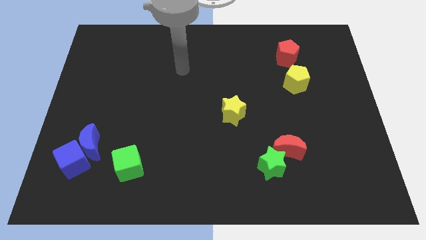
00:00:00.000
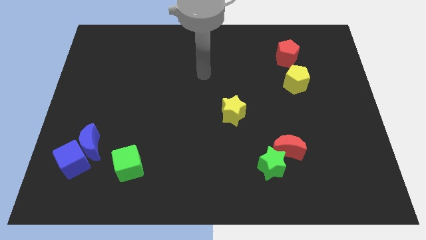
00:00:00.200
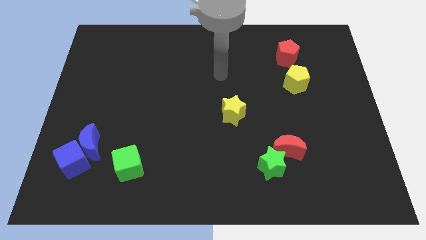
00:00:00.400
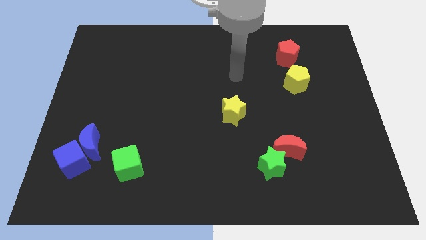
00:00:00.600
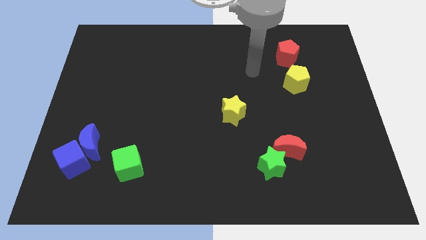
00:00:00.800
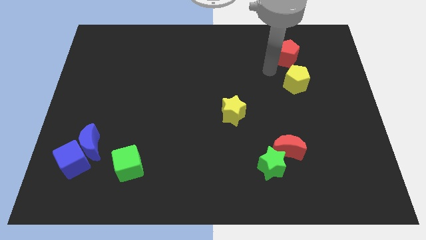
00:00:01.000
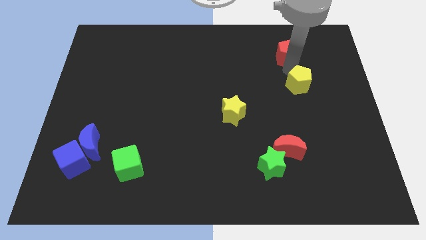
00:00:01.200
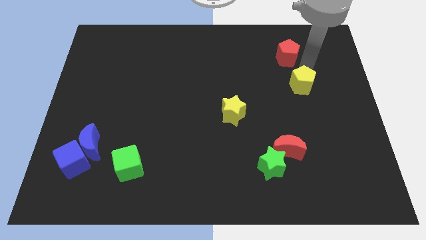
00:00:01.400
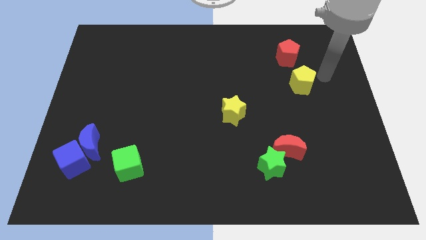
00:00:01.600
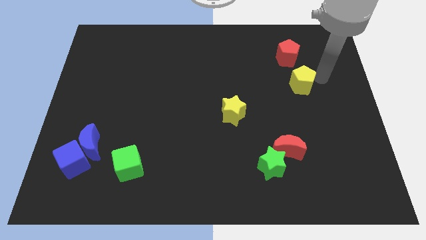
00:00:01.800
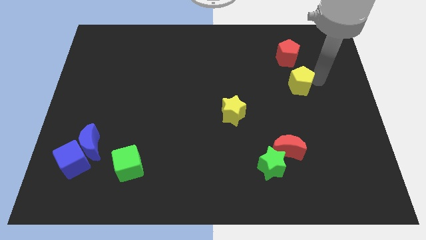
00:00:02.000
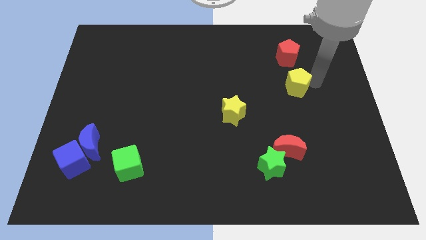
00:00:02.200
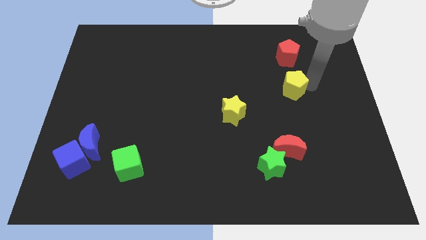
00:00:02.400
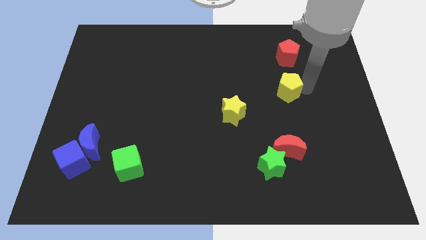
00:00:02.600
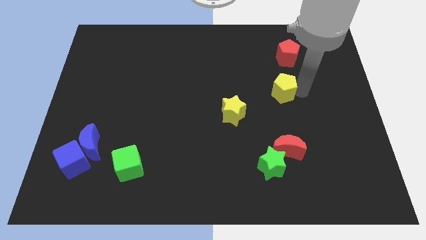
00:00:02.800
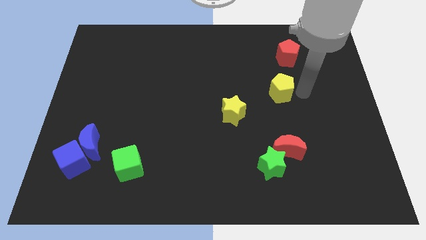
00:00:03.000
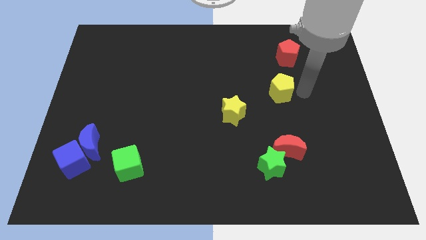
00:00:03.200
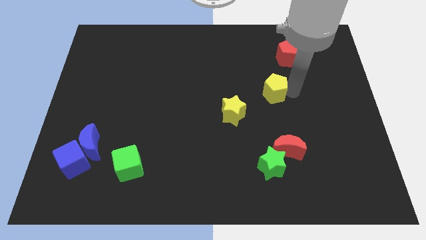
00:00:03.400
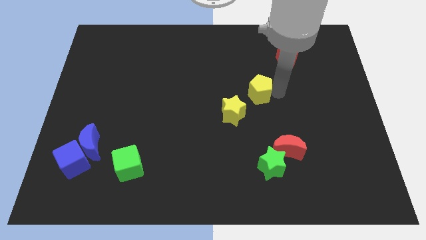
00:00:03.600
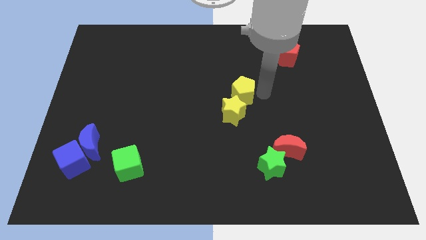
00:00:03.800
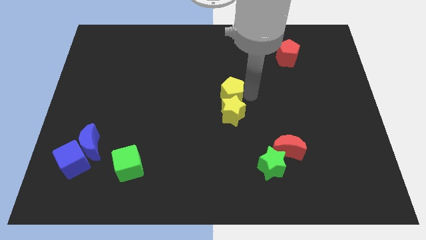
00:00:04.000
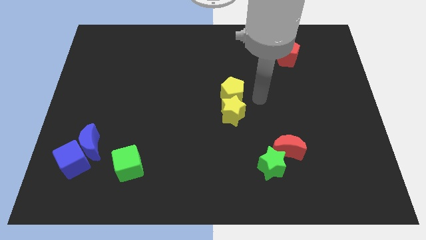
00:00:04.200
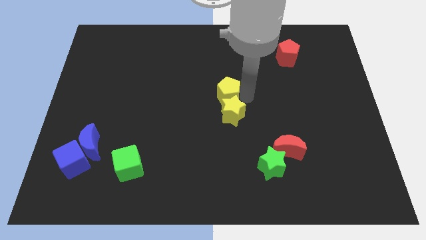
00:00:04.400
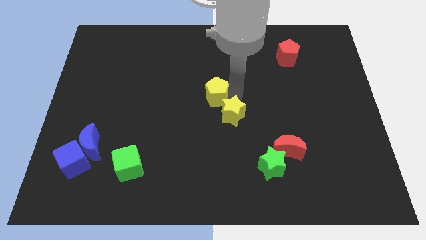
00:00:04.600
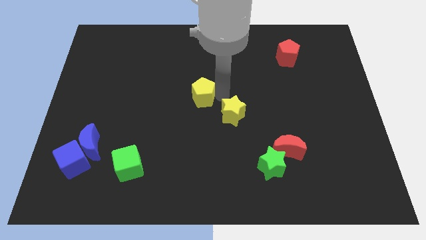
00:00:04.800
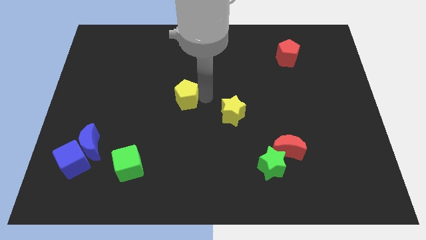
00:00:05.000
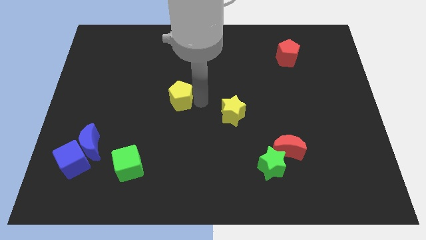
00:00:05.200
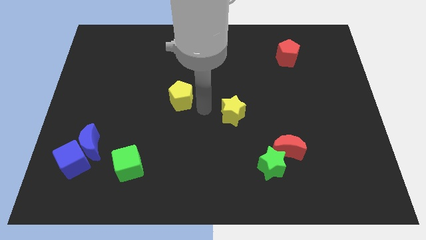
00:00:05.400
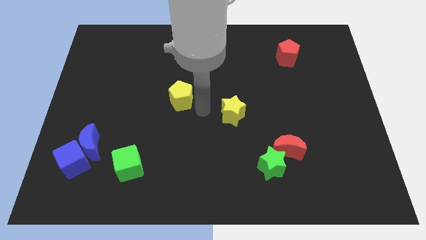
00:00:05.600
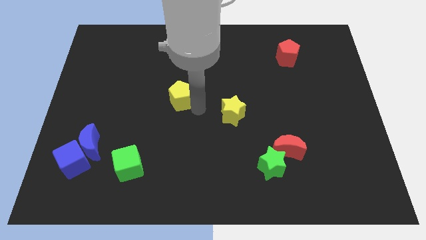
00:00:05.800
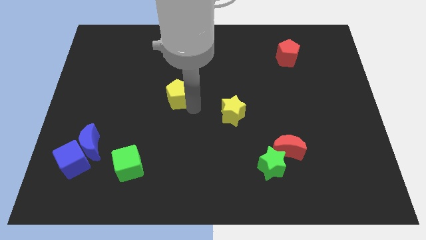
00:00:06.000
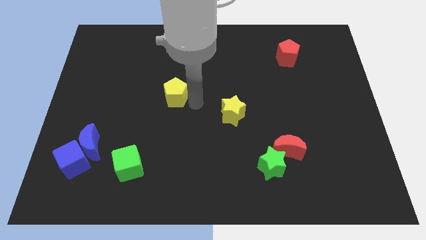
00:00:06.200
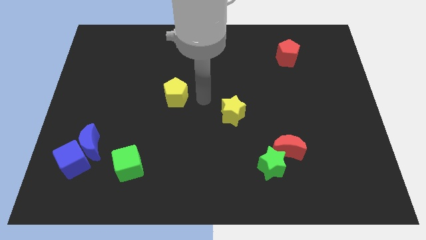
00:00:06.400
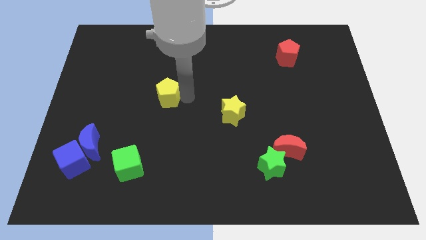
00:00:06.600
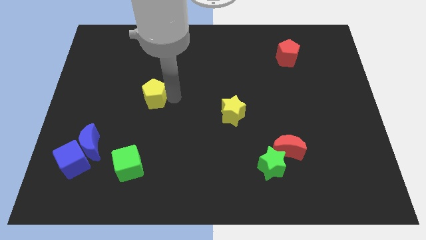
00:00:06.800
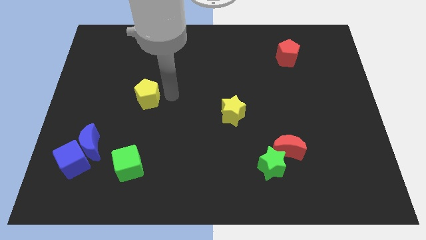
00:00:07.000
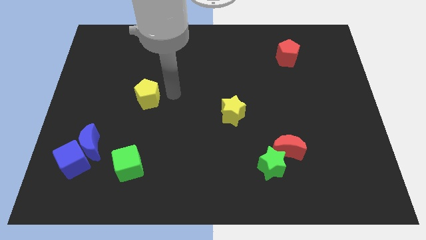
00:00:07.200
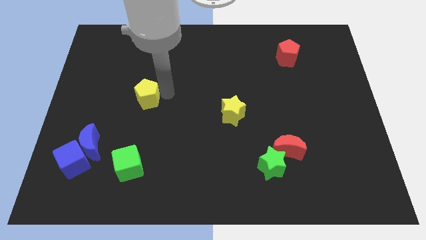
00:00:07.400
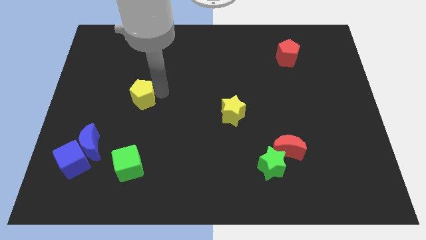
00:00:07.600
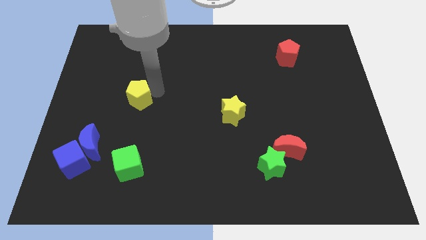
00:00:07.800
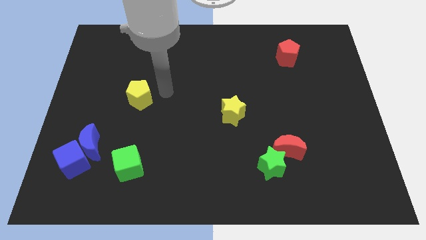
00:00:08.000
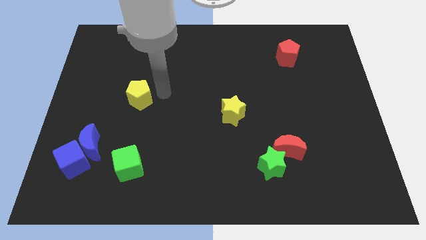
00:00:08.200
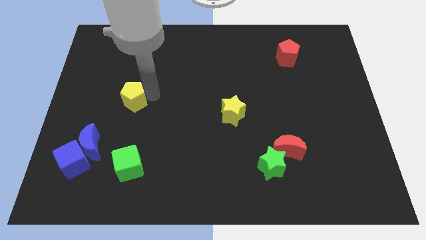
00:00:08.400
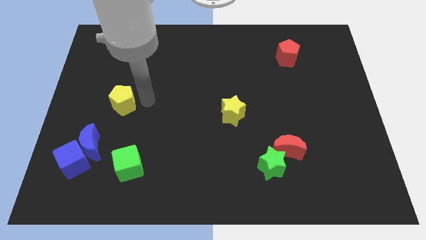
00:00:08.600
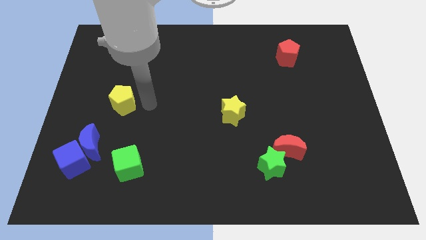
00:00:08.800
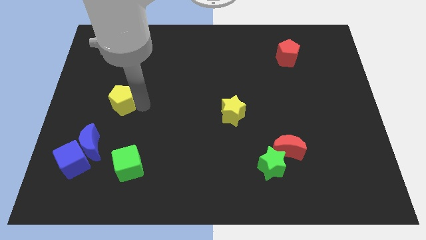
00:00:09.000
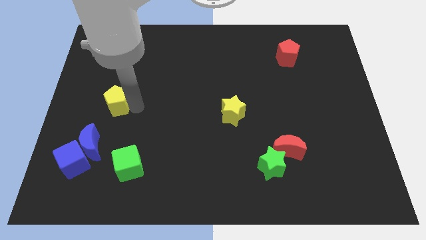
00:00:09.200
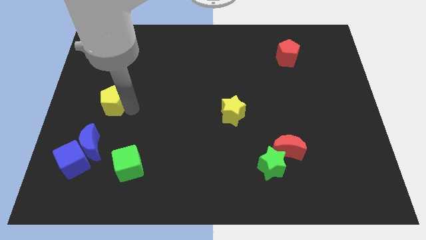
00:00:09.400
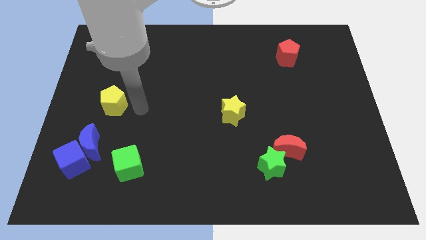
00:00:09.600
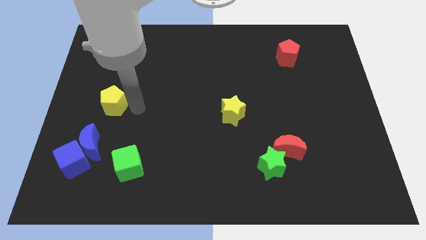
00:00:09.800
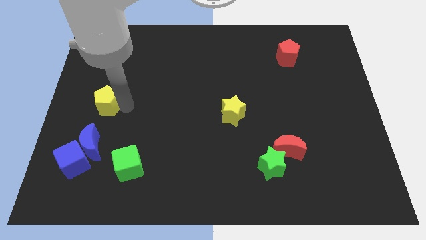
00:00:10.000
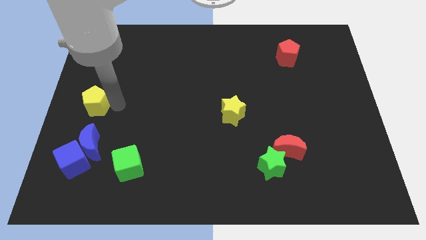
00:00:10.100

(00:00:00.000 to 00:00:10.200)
push the yellow pentagon to the left side

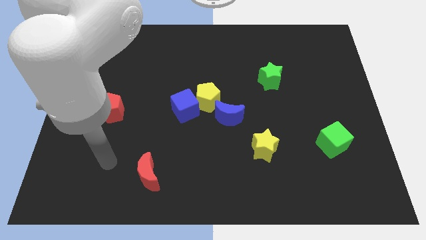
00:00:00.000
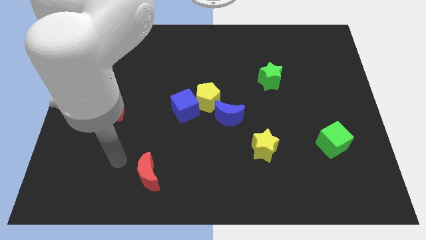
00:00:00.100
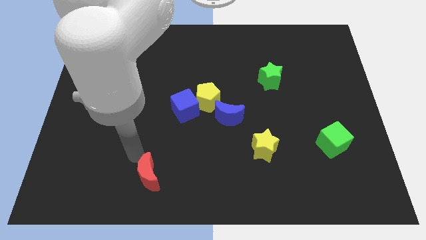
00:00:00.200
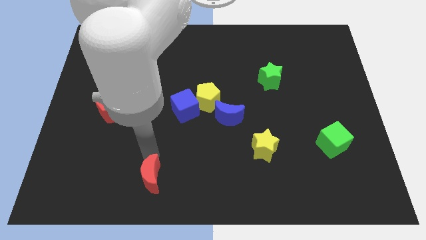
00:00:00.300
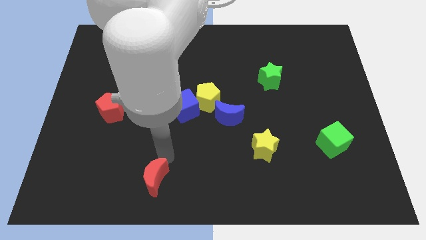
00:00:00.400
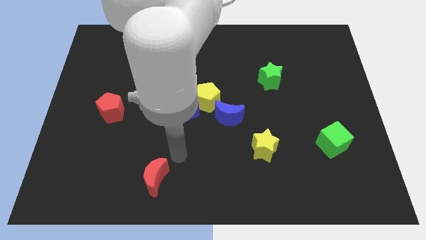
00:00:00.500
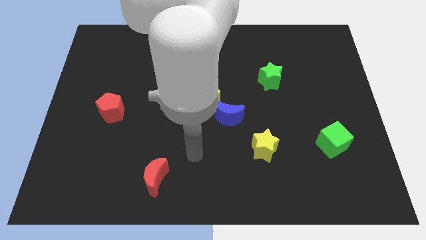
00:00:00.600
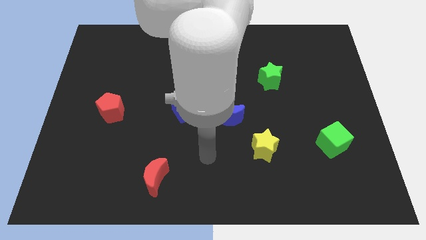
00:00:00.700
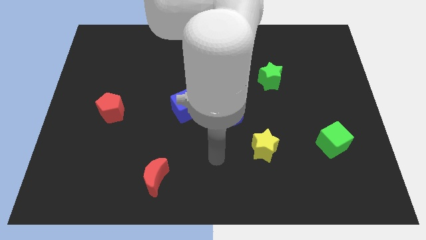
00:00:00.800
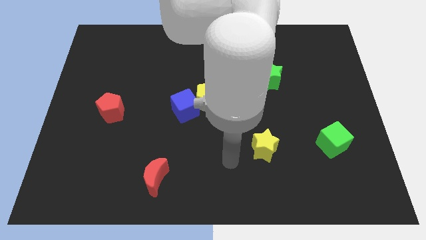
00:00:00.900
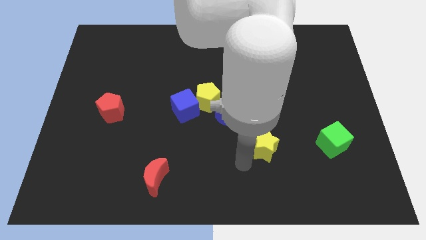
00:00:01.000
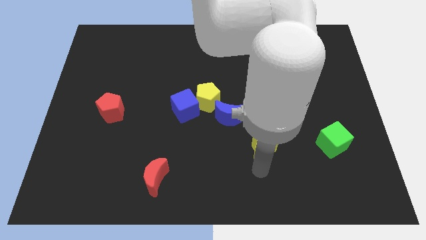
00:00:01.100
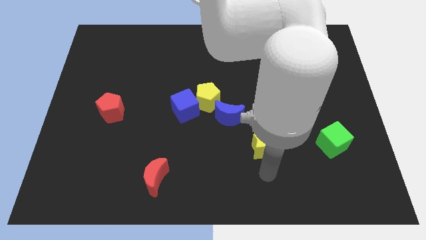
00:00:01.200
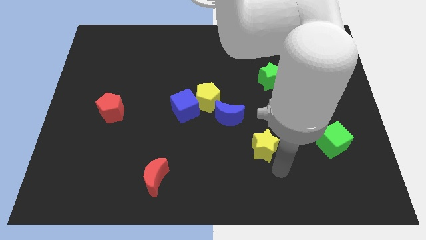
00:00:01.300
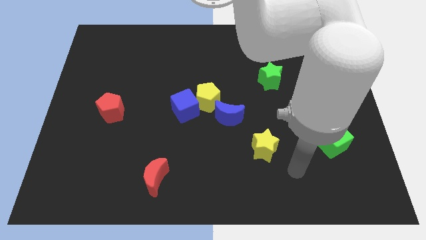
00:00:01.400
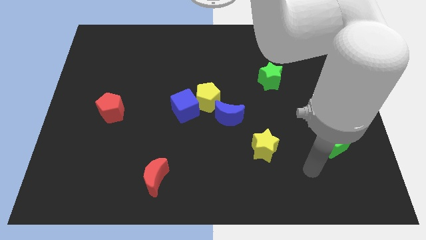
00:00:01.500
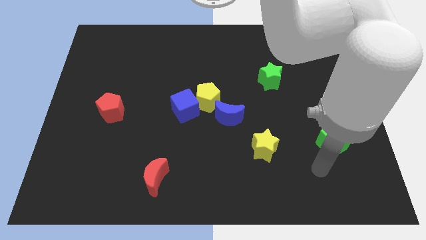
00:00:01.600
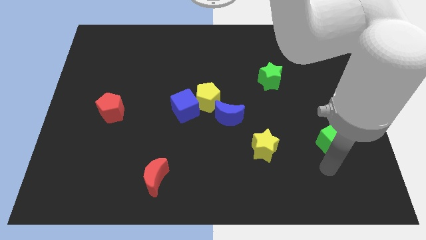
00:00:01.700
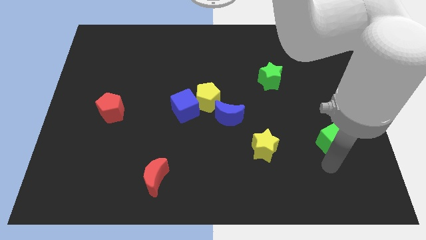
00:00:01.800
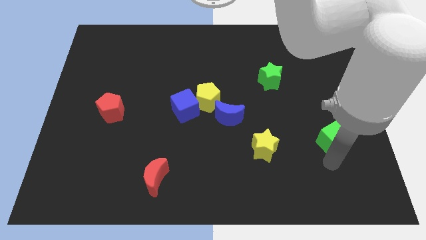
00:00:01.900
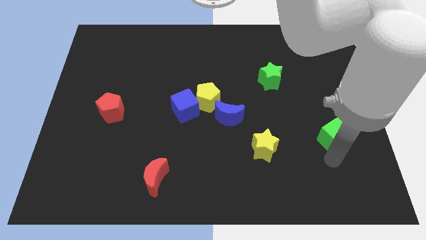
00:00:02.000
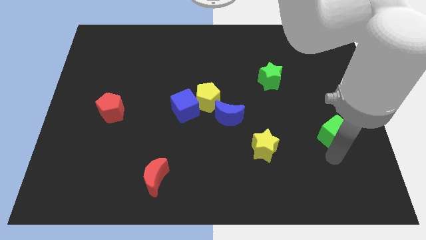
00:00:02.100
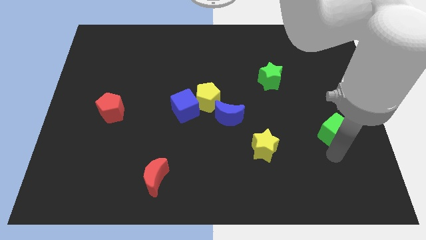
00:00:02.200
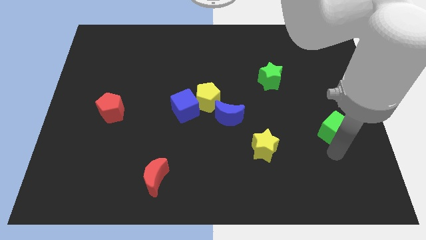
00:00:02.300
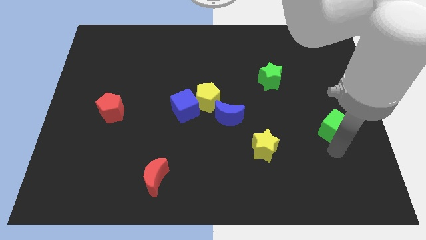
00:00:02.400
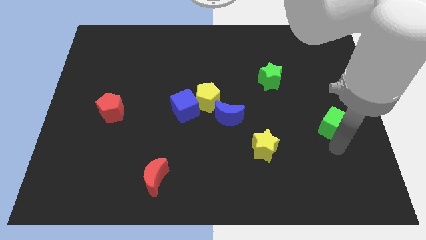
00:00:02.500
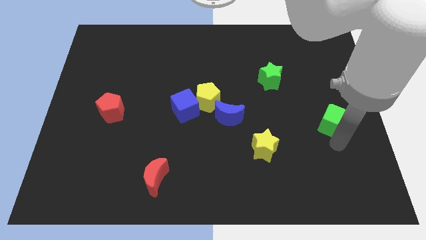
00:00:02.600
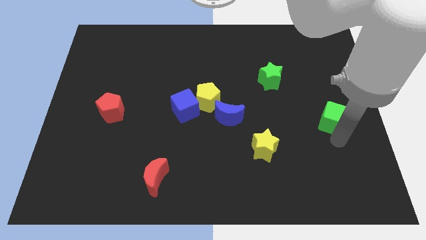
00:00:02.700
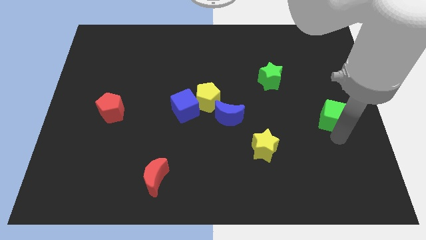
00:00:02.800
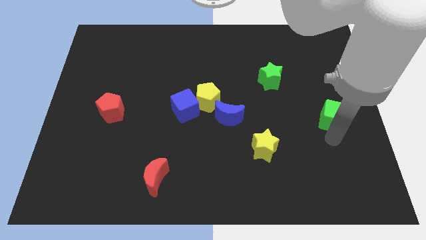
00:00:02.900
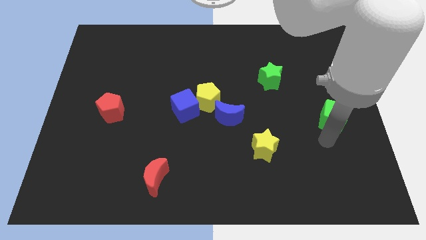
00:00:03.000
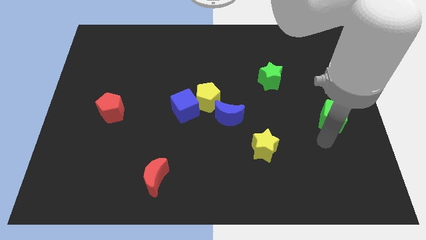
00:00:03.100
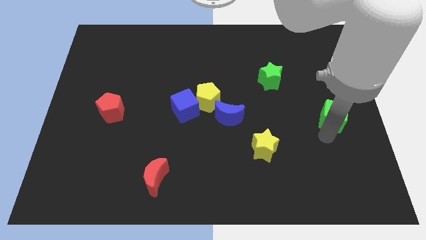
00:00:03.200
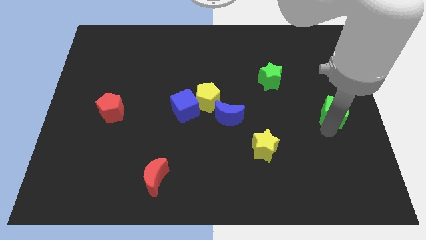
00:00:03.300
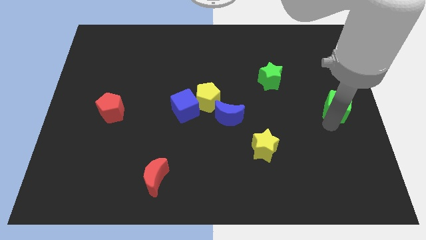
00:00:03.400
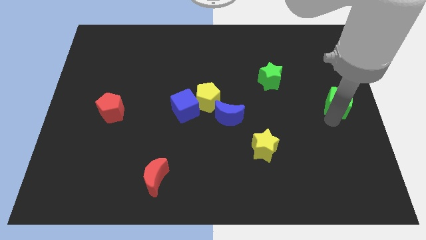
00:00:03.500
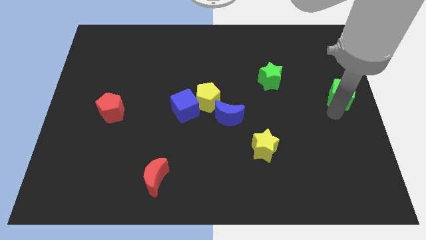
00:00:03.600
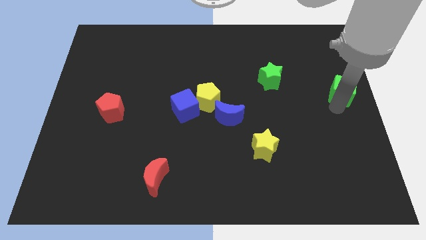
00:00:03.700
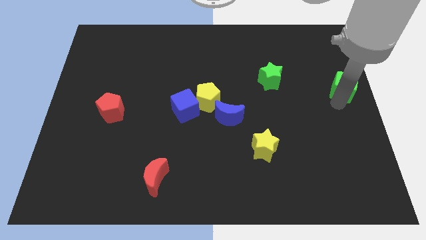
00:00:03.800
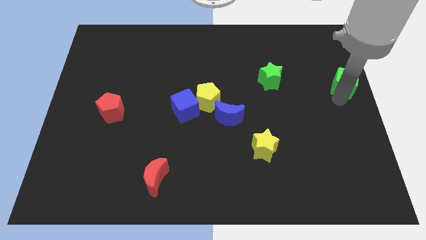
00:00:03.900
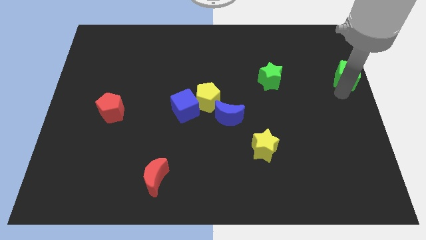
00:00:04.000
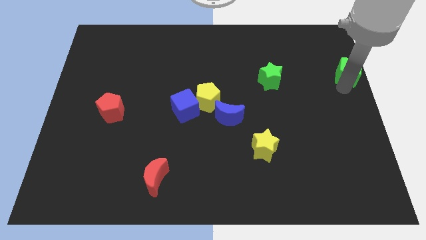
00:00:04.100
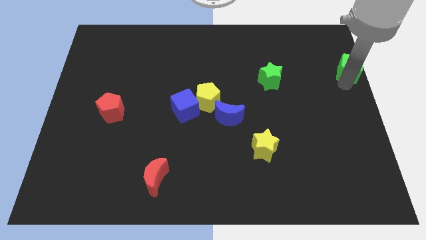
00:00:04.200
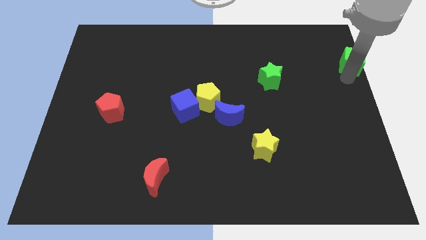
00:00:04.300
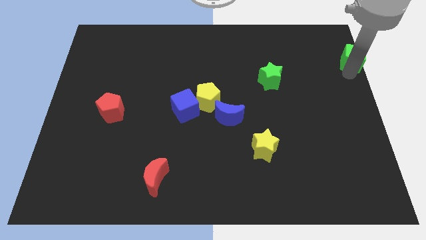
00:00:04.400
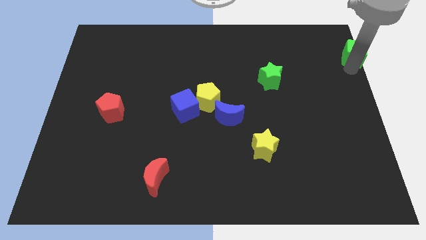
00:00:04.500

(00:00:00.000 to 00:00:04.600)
push the green cube to the top right
